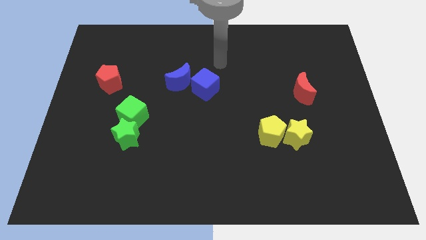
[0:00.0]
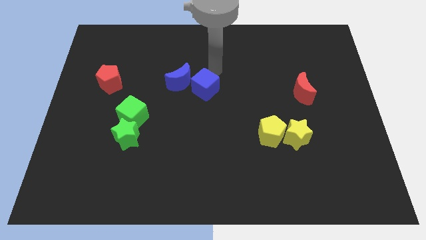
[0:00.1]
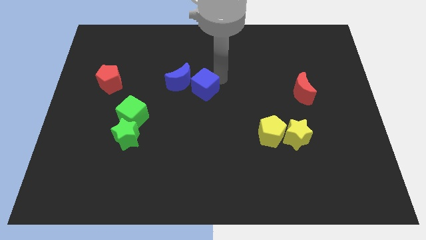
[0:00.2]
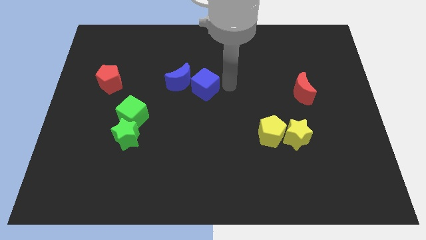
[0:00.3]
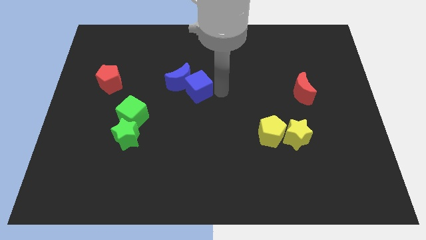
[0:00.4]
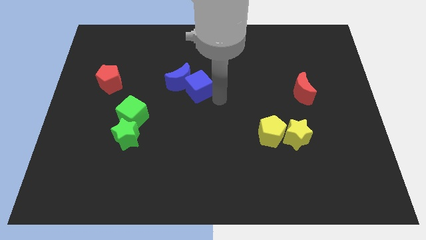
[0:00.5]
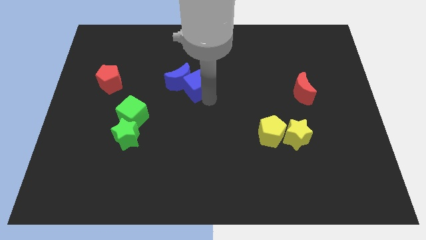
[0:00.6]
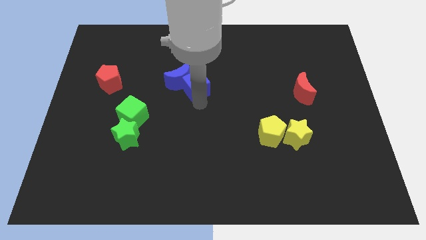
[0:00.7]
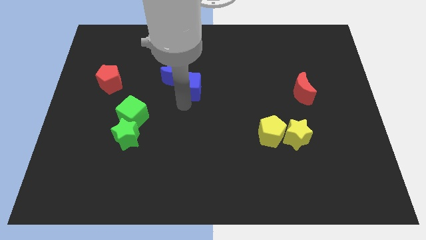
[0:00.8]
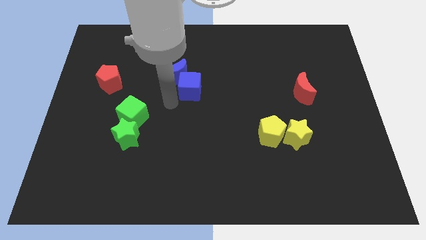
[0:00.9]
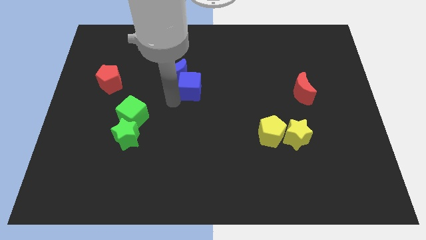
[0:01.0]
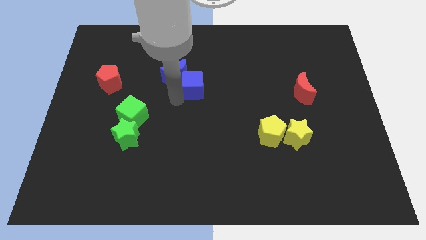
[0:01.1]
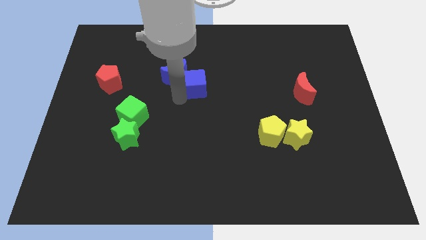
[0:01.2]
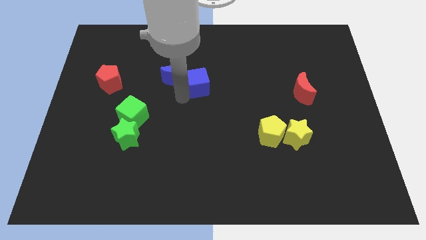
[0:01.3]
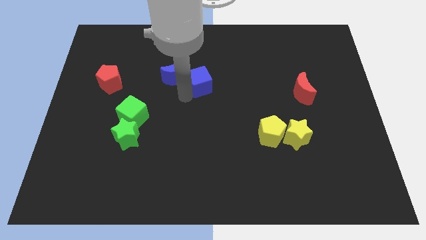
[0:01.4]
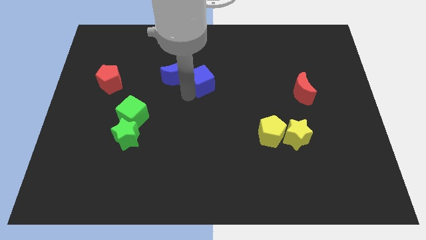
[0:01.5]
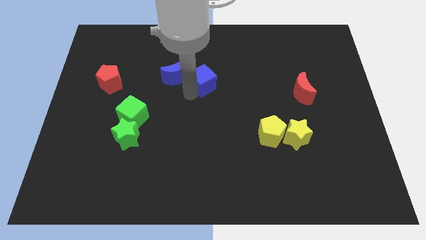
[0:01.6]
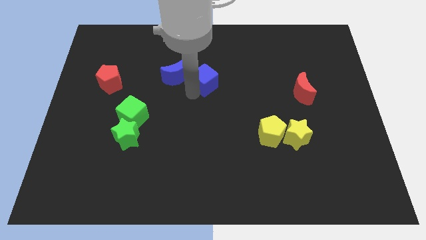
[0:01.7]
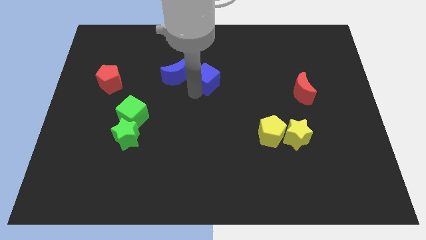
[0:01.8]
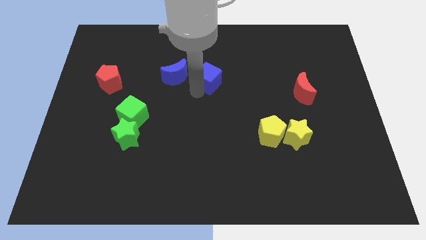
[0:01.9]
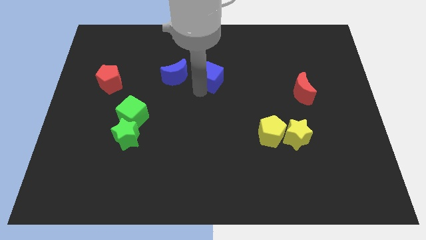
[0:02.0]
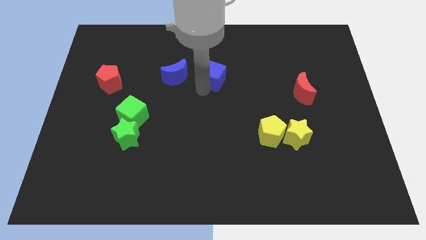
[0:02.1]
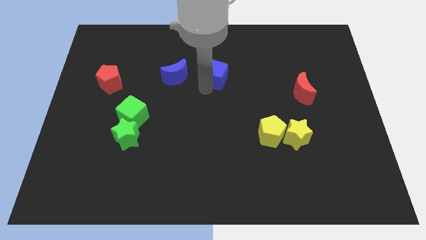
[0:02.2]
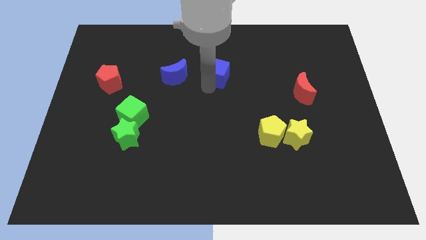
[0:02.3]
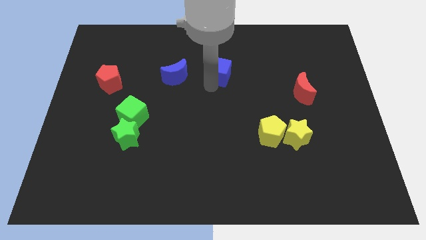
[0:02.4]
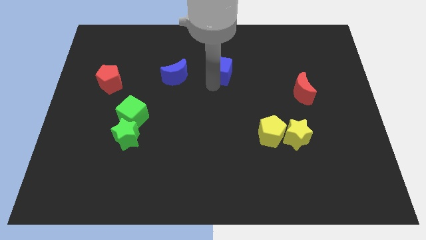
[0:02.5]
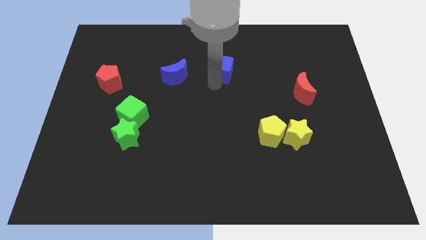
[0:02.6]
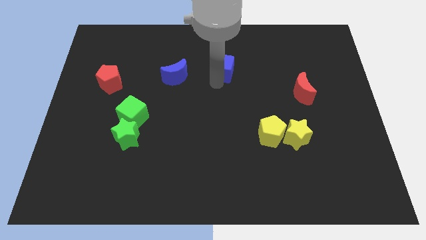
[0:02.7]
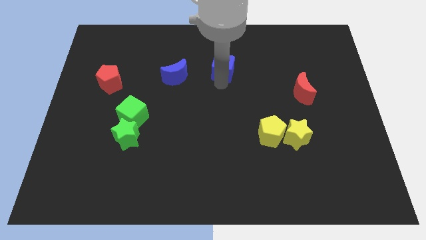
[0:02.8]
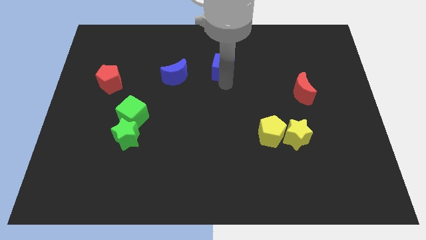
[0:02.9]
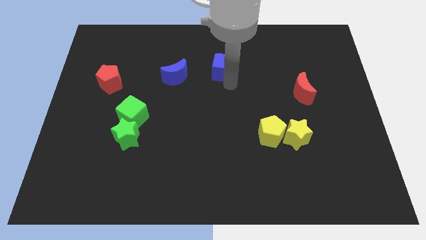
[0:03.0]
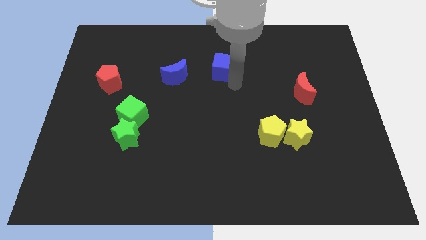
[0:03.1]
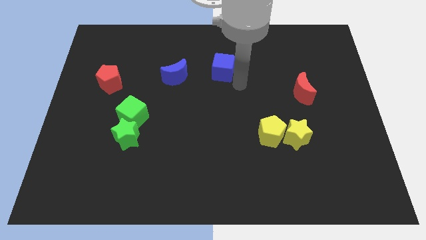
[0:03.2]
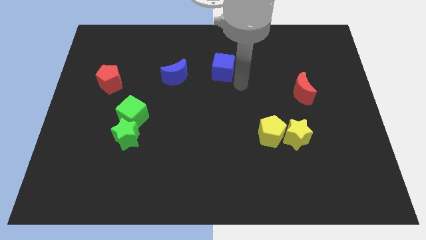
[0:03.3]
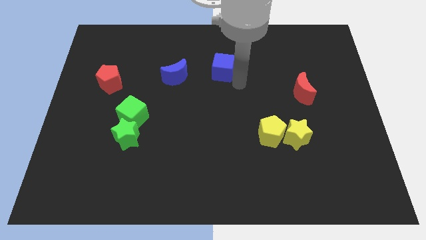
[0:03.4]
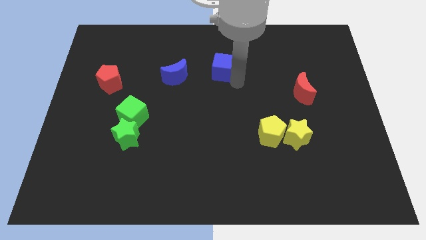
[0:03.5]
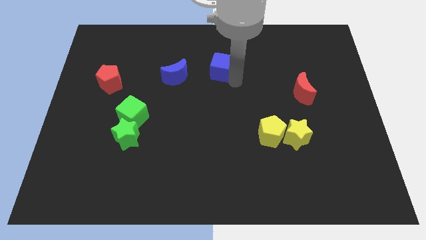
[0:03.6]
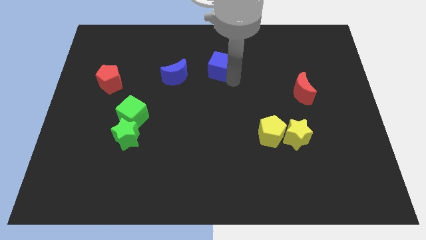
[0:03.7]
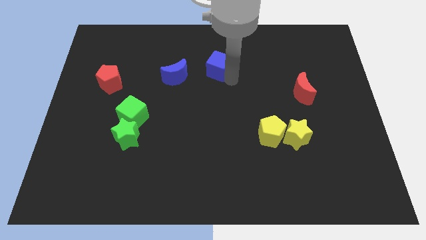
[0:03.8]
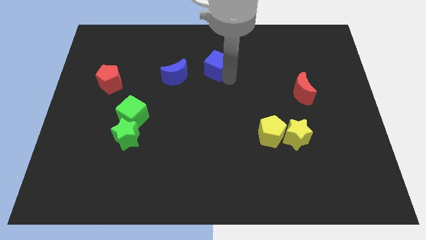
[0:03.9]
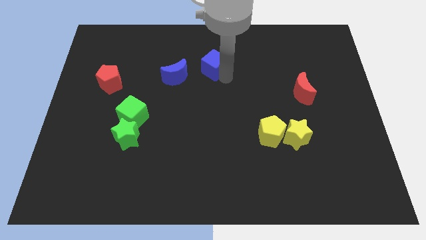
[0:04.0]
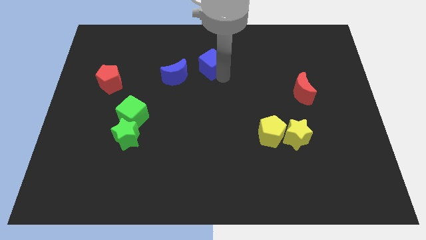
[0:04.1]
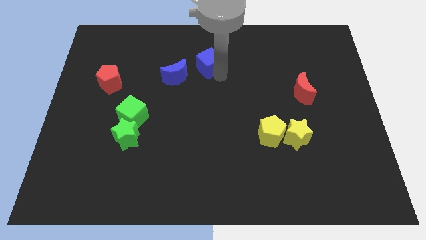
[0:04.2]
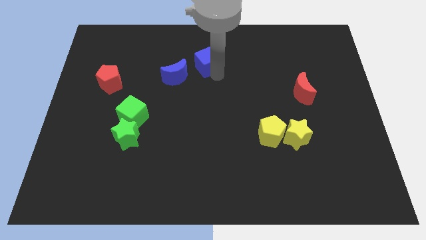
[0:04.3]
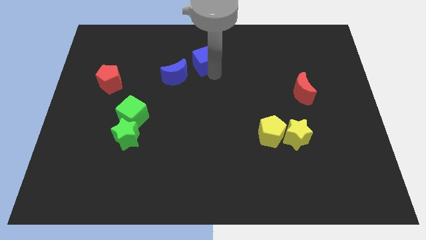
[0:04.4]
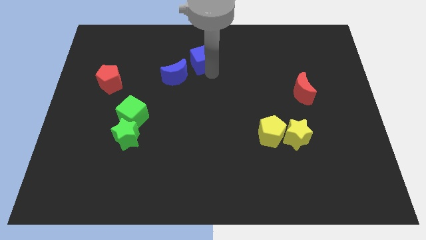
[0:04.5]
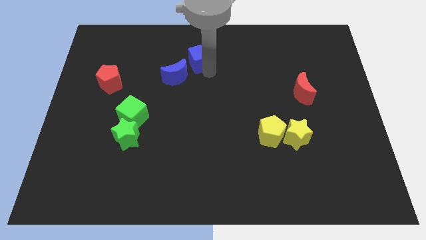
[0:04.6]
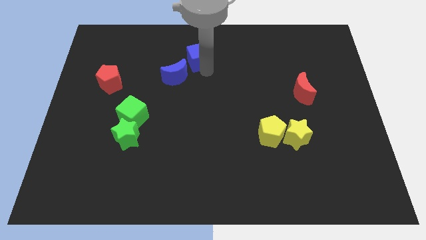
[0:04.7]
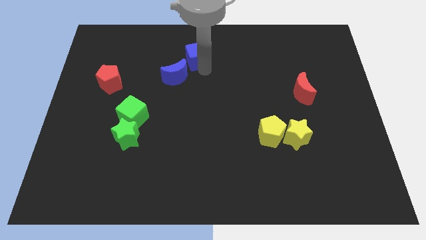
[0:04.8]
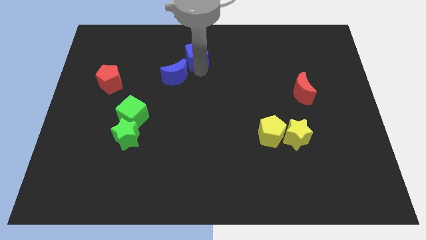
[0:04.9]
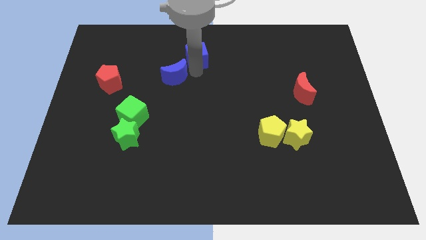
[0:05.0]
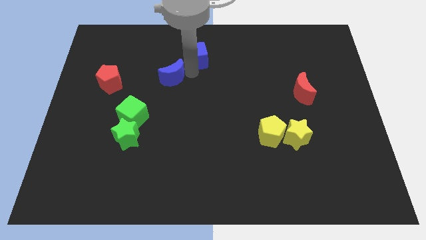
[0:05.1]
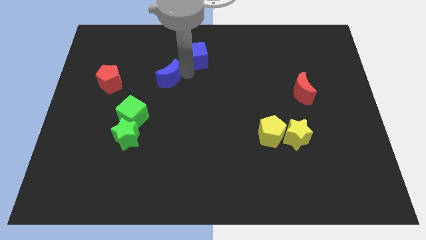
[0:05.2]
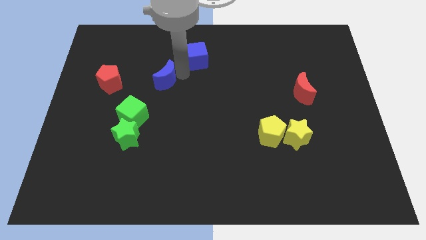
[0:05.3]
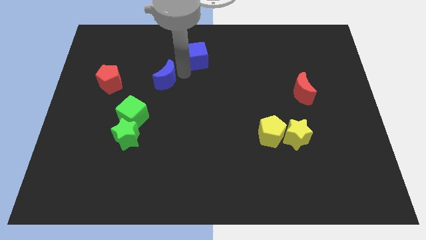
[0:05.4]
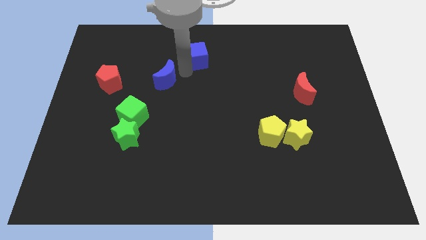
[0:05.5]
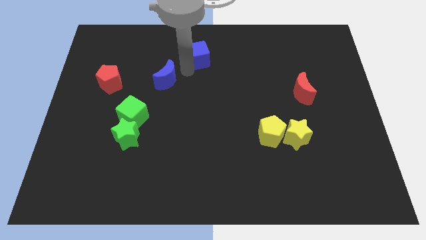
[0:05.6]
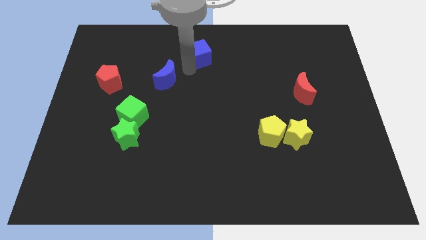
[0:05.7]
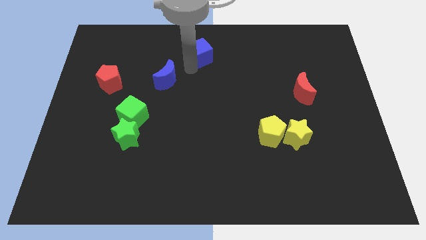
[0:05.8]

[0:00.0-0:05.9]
put the blue cube to the top side
